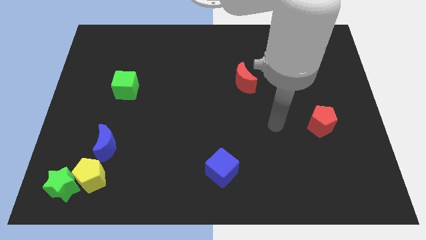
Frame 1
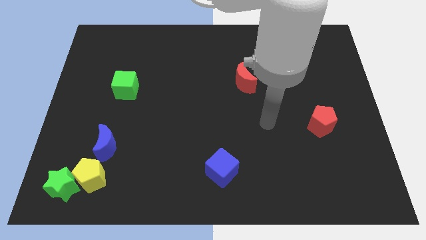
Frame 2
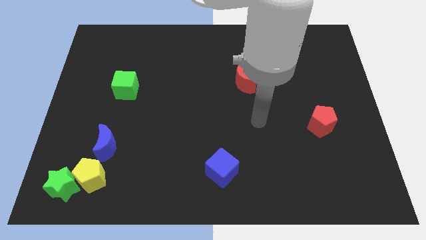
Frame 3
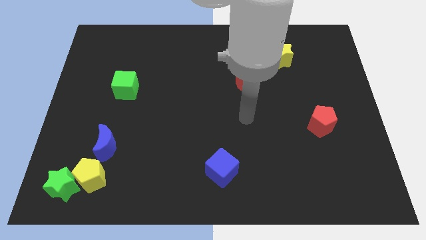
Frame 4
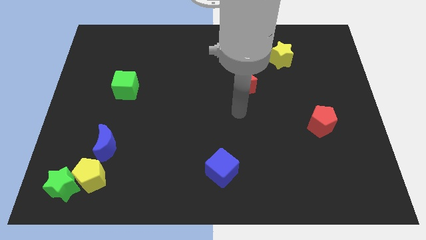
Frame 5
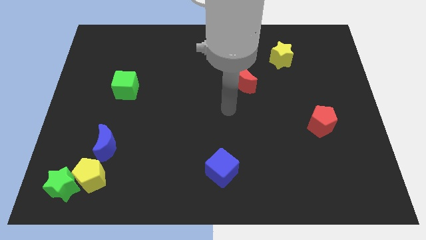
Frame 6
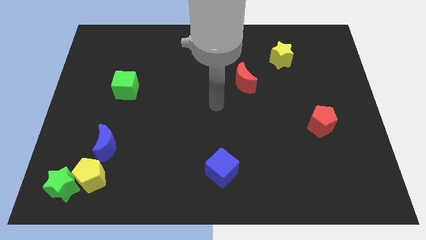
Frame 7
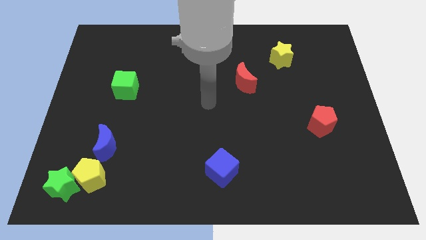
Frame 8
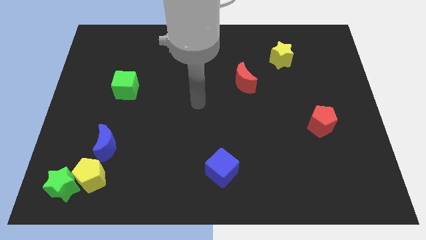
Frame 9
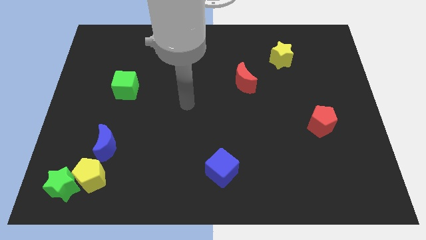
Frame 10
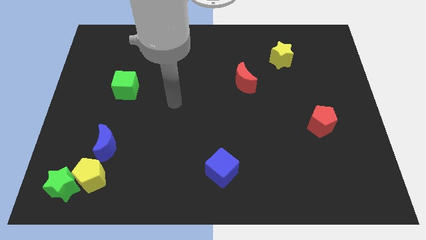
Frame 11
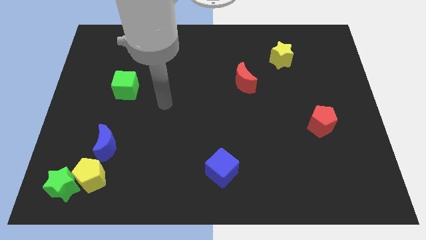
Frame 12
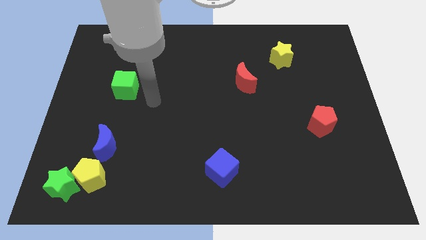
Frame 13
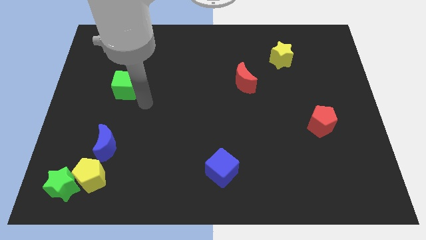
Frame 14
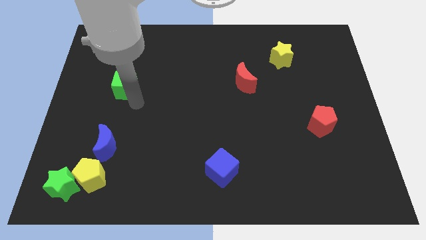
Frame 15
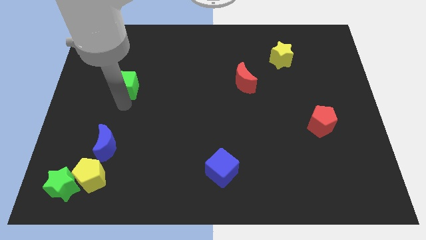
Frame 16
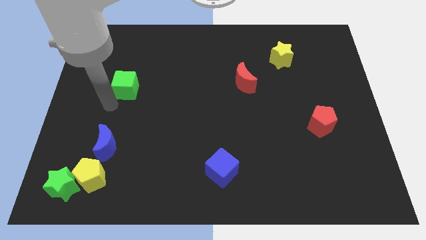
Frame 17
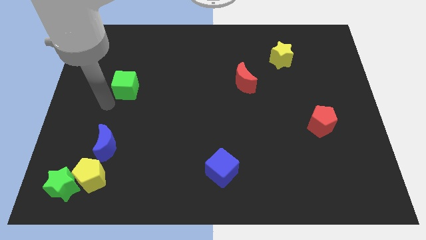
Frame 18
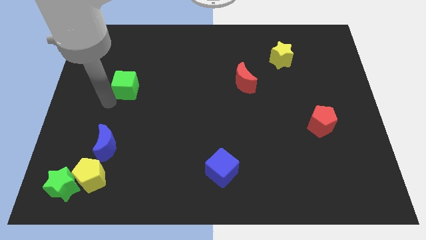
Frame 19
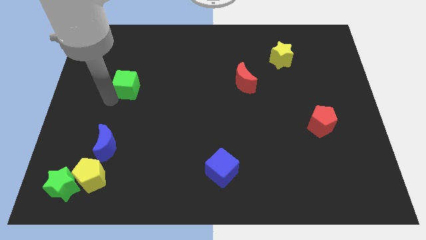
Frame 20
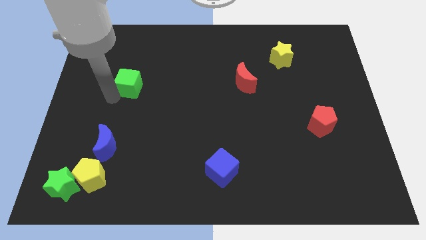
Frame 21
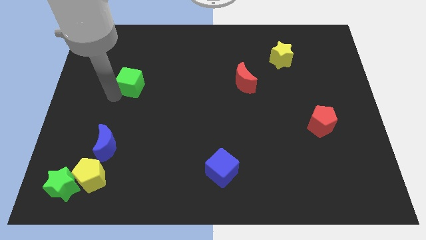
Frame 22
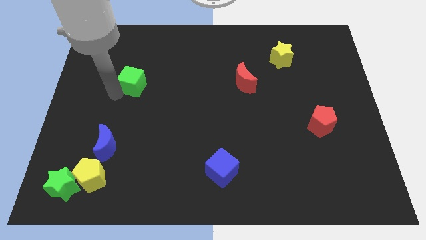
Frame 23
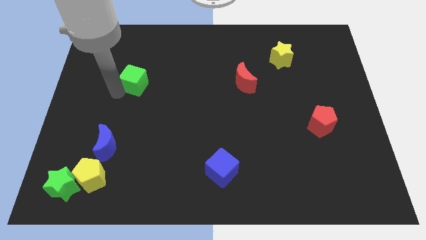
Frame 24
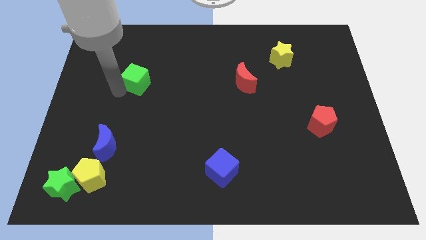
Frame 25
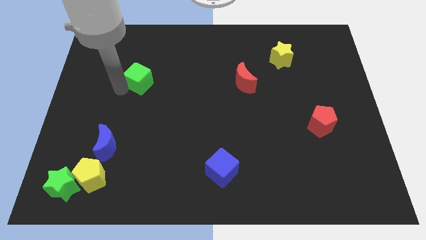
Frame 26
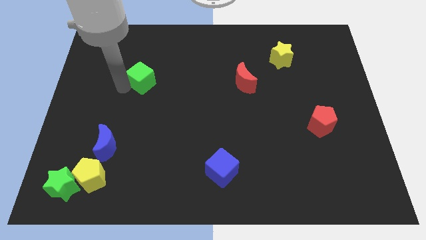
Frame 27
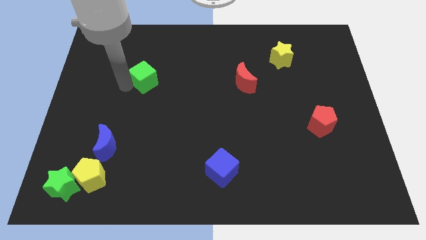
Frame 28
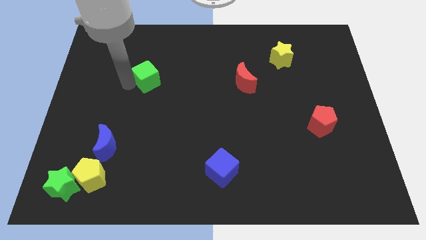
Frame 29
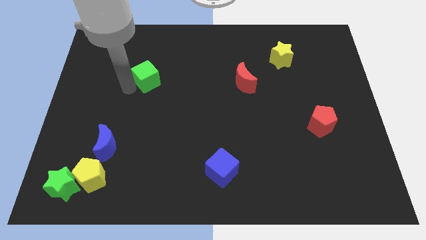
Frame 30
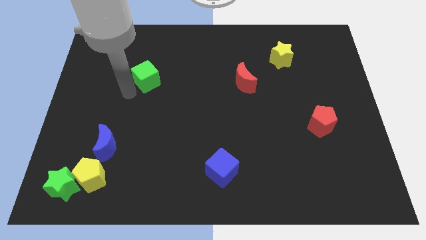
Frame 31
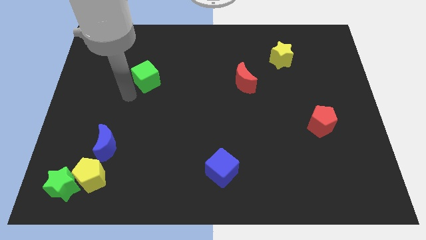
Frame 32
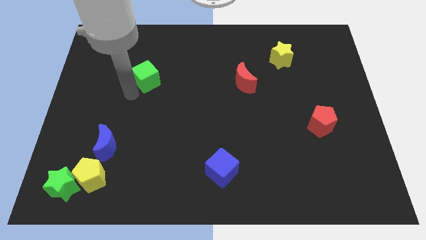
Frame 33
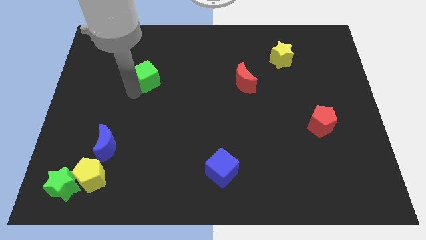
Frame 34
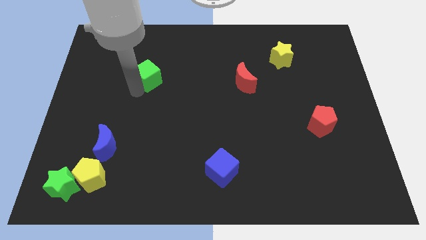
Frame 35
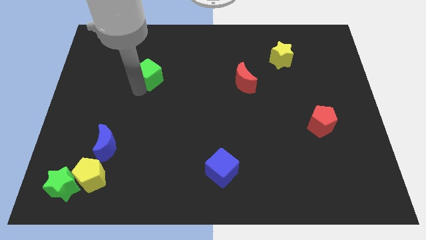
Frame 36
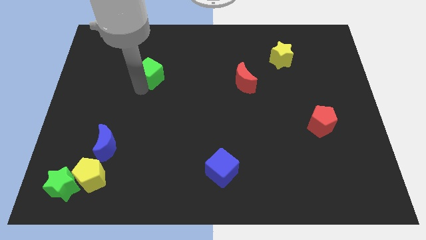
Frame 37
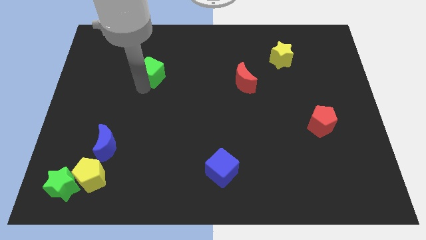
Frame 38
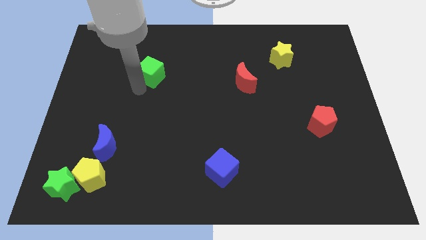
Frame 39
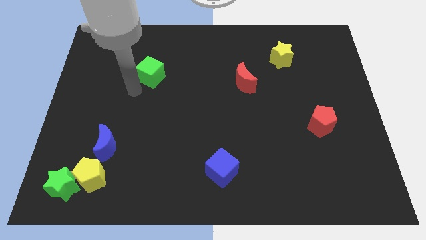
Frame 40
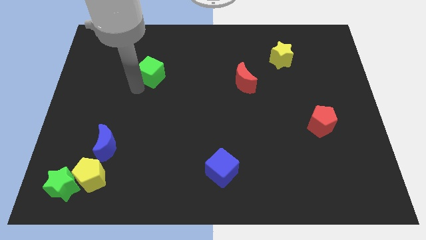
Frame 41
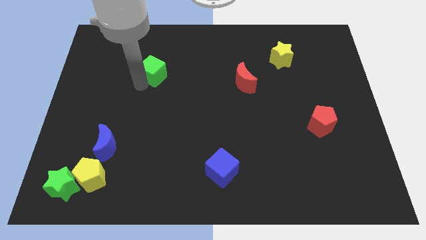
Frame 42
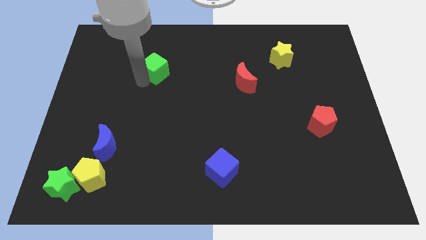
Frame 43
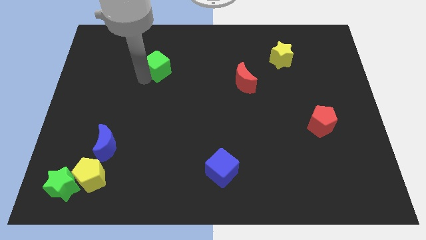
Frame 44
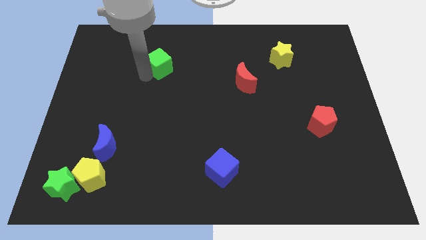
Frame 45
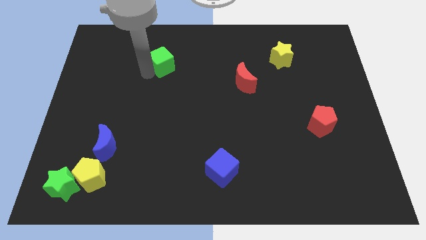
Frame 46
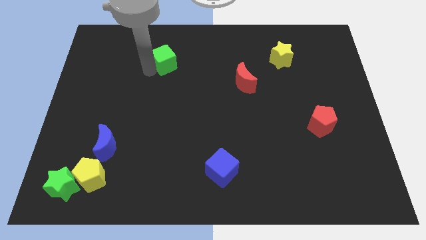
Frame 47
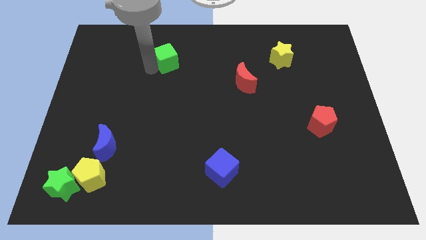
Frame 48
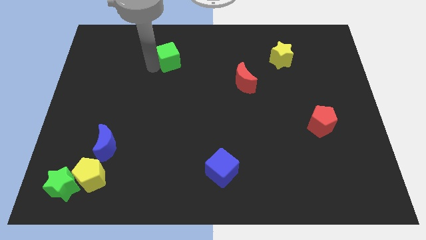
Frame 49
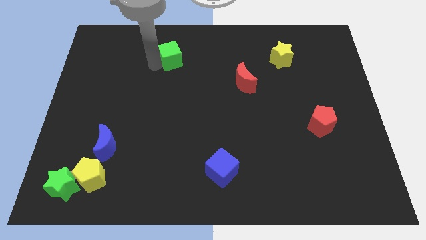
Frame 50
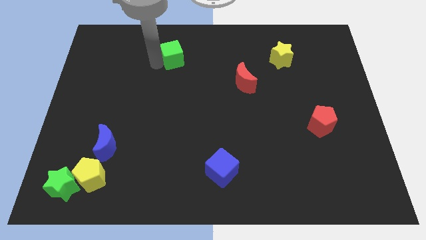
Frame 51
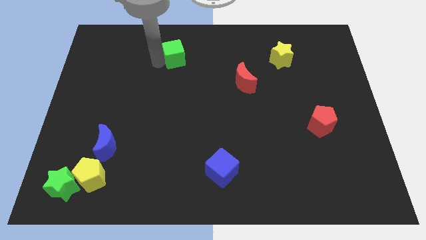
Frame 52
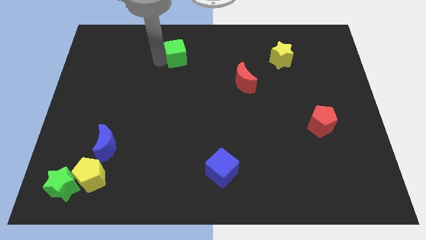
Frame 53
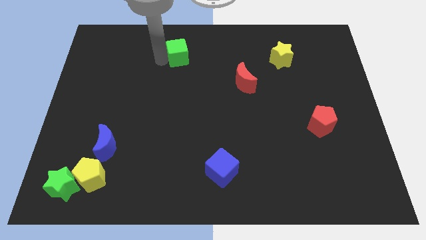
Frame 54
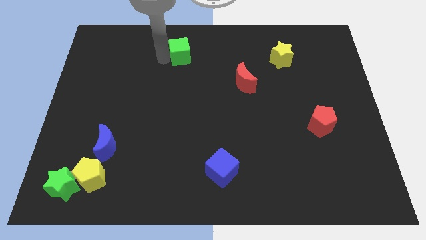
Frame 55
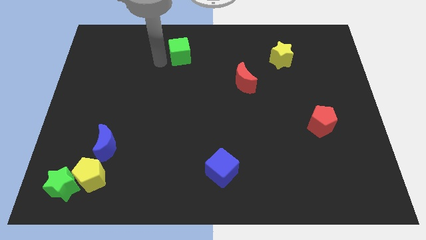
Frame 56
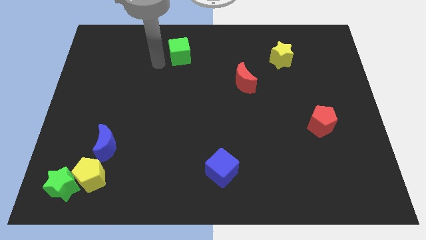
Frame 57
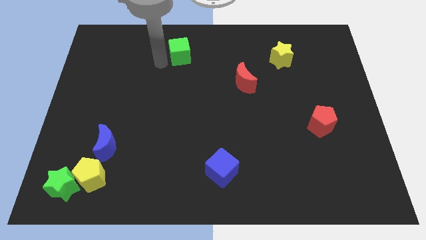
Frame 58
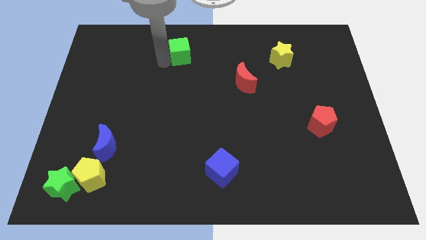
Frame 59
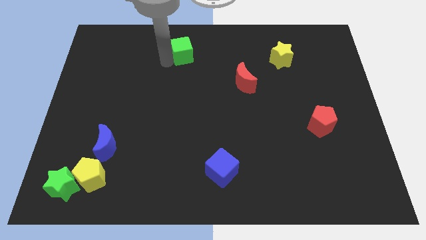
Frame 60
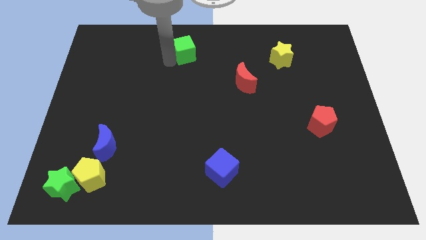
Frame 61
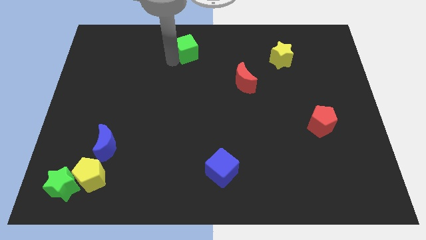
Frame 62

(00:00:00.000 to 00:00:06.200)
put the green cube to the top

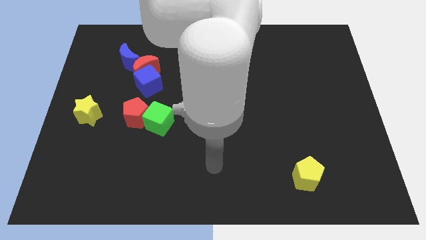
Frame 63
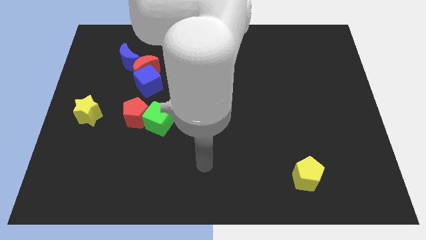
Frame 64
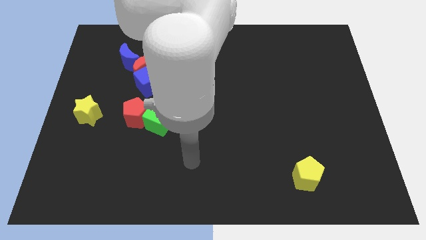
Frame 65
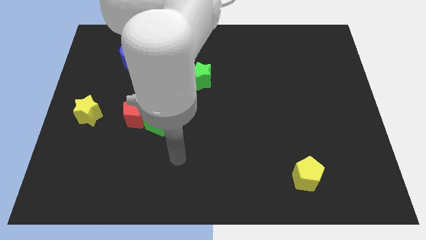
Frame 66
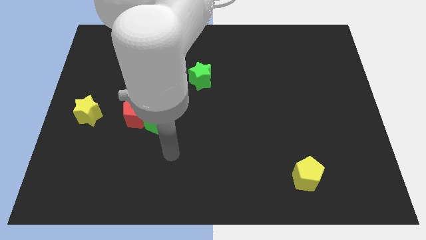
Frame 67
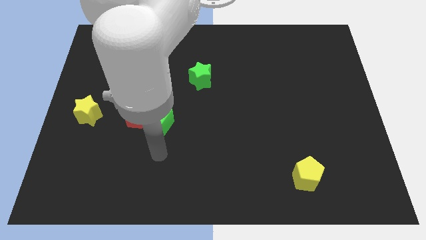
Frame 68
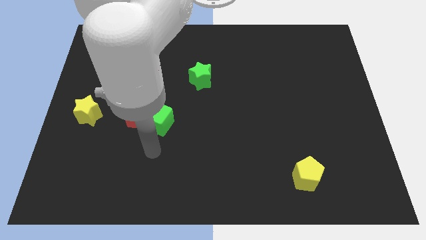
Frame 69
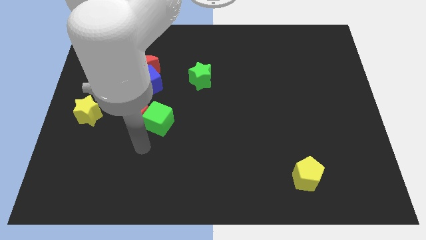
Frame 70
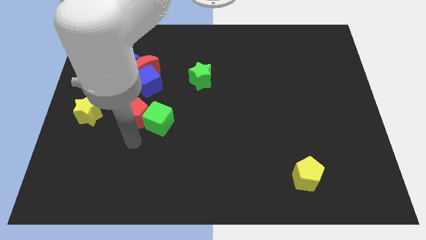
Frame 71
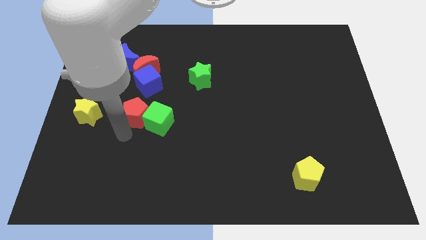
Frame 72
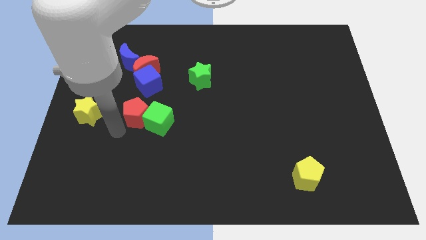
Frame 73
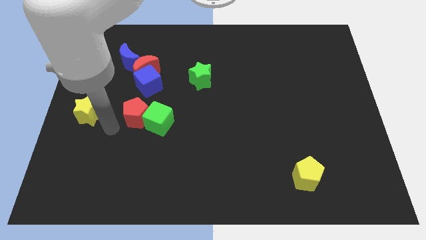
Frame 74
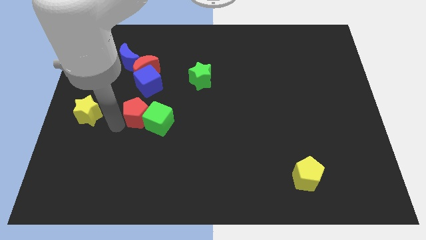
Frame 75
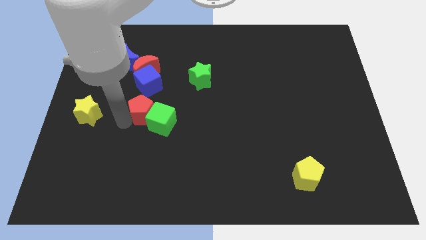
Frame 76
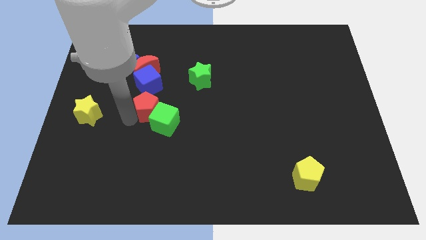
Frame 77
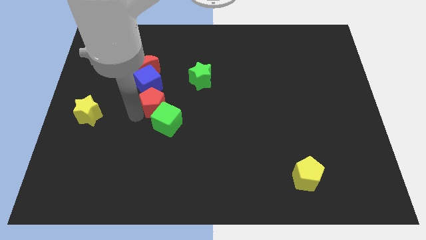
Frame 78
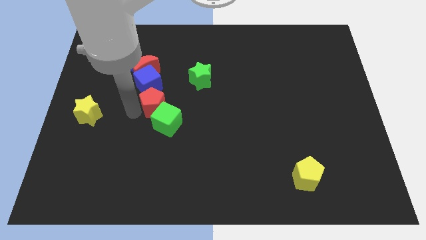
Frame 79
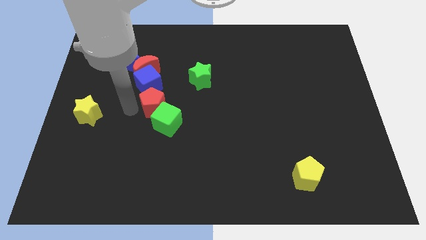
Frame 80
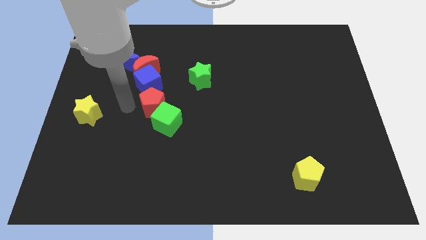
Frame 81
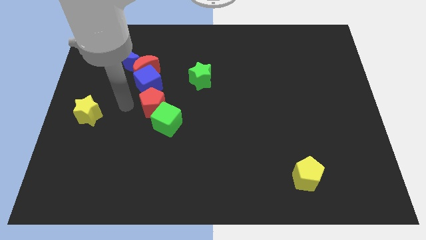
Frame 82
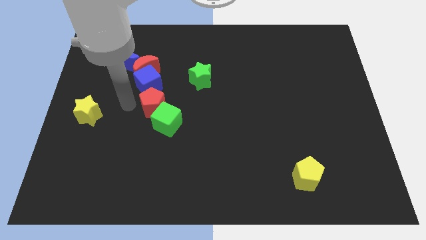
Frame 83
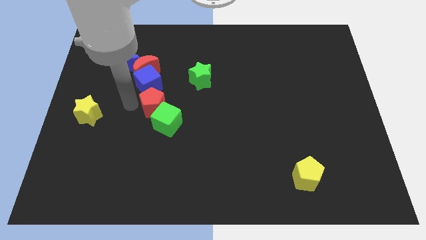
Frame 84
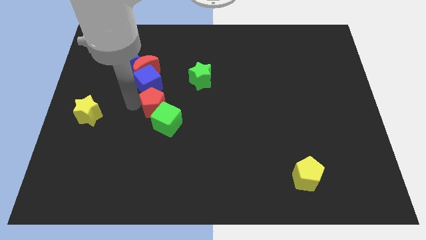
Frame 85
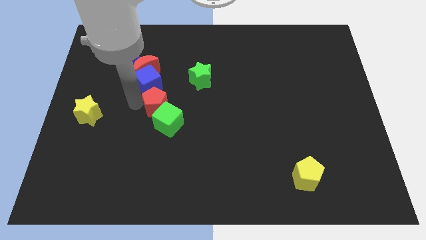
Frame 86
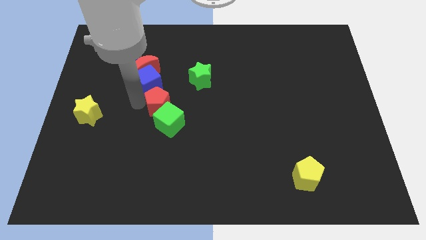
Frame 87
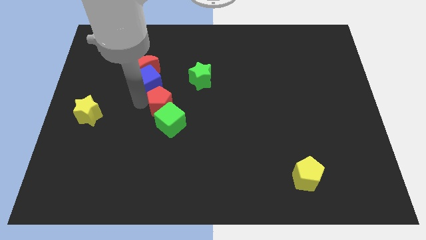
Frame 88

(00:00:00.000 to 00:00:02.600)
slide the red pentagon to the center of the board
